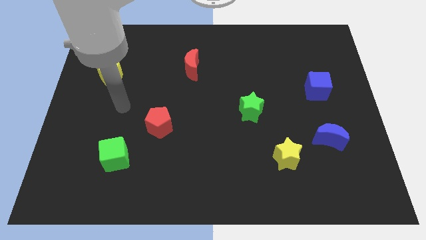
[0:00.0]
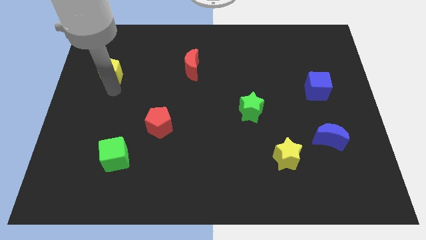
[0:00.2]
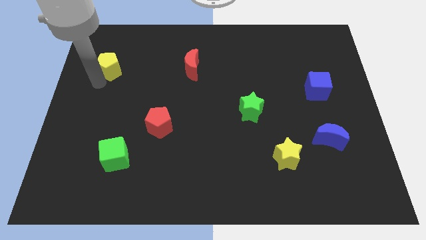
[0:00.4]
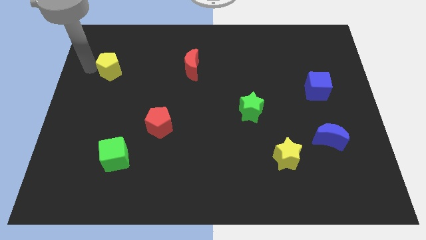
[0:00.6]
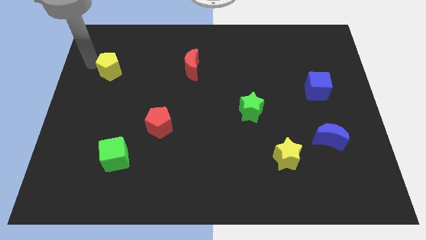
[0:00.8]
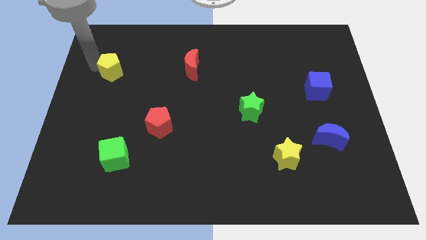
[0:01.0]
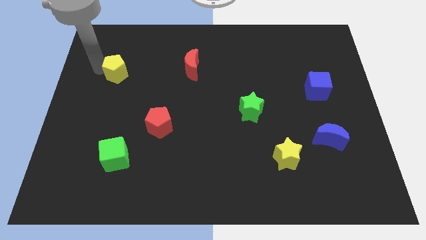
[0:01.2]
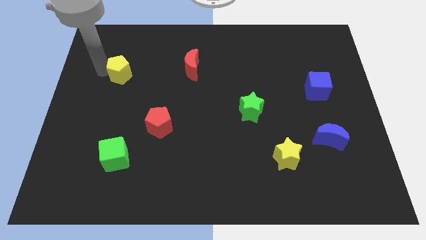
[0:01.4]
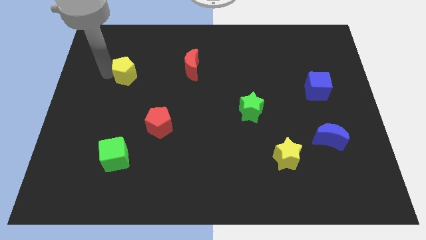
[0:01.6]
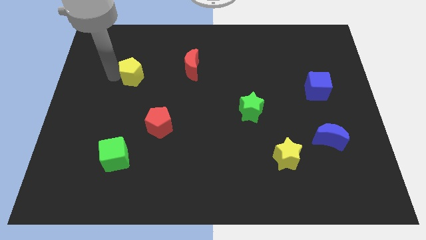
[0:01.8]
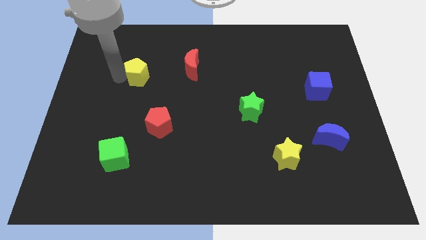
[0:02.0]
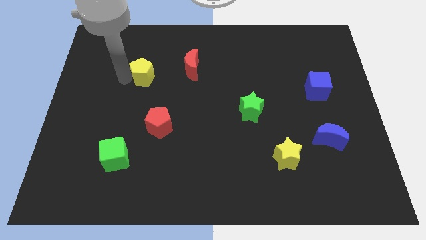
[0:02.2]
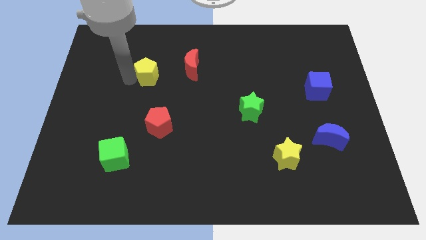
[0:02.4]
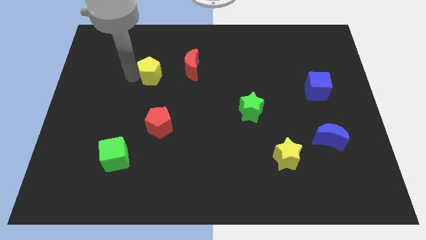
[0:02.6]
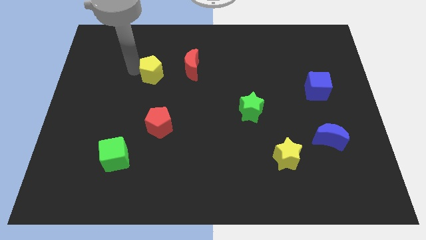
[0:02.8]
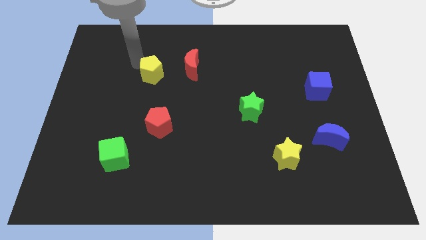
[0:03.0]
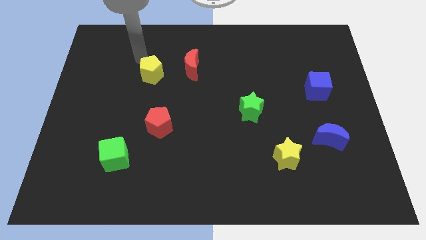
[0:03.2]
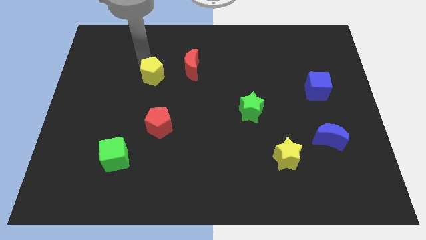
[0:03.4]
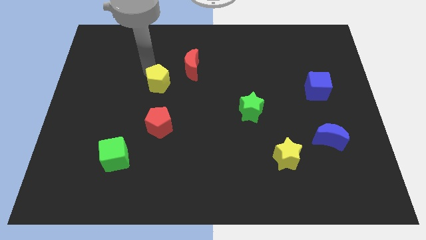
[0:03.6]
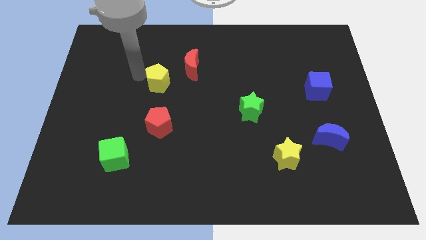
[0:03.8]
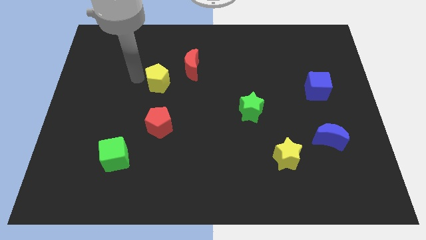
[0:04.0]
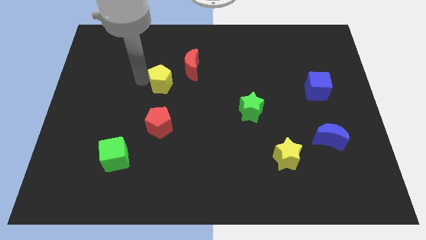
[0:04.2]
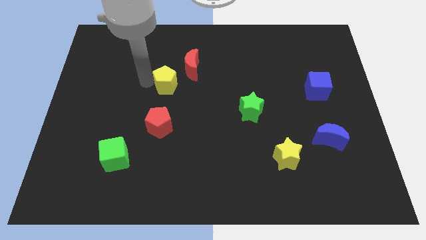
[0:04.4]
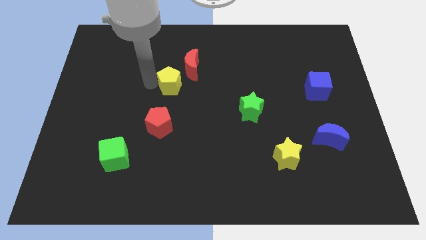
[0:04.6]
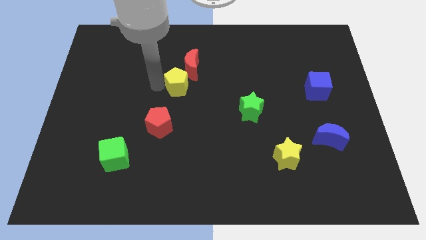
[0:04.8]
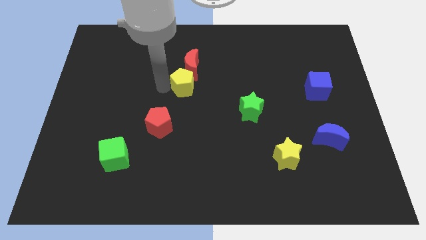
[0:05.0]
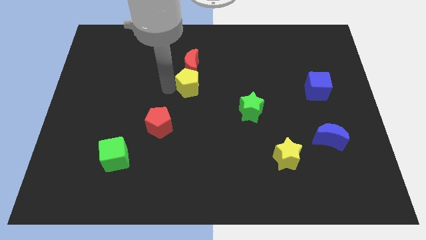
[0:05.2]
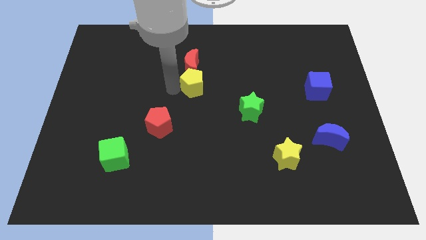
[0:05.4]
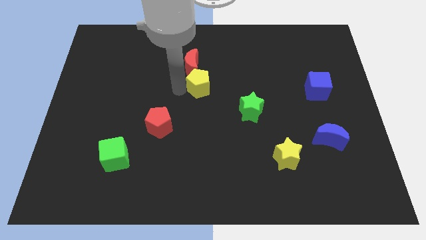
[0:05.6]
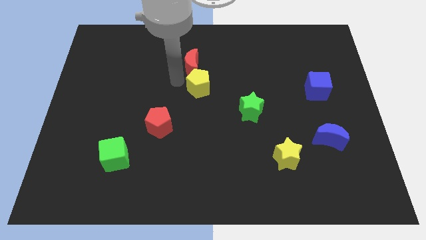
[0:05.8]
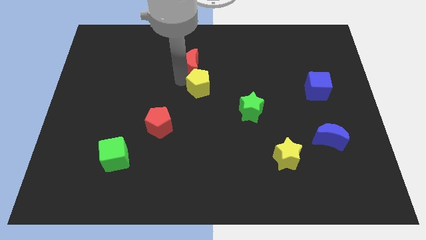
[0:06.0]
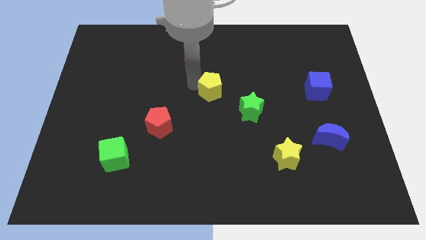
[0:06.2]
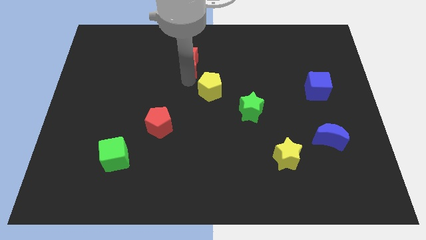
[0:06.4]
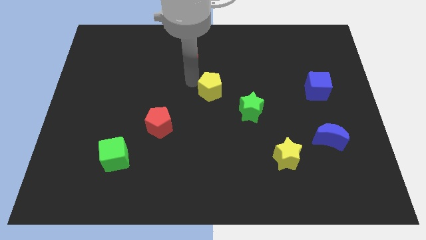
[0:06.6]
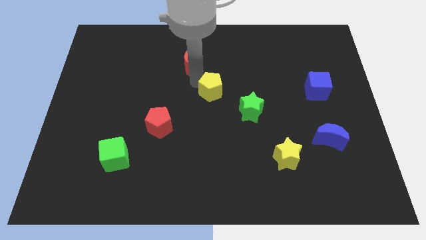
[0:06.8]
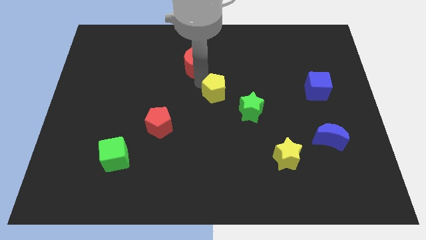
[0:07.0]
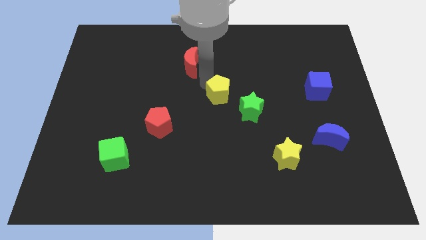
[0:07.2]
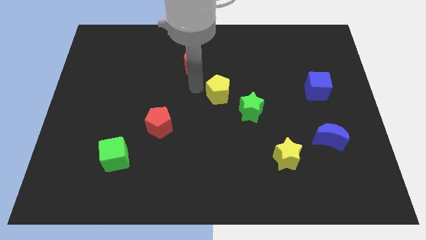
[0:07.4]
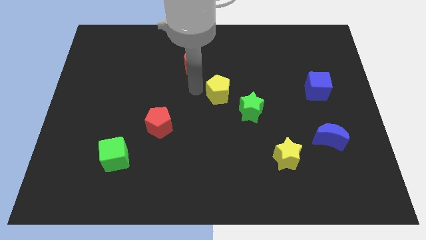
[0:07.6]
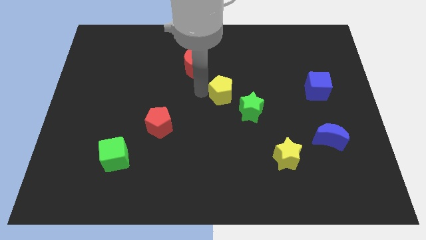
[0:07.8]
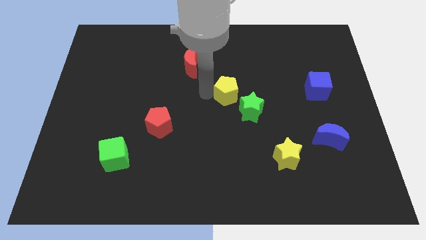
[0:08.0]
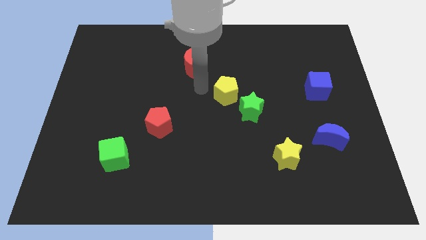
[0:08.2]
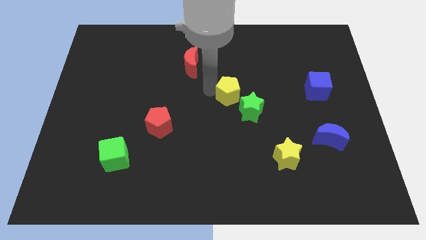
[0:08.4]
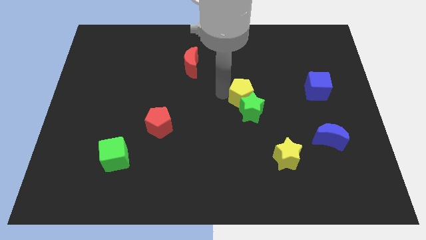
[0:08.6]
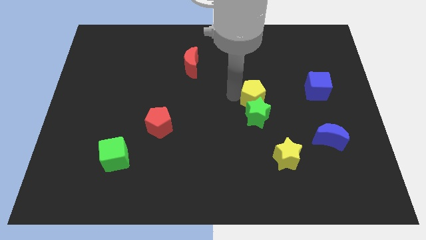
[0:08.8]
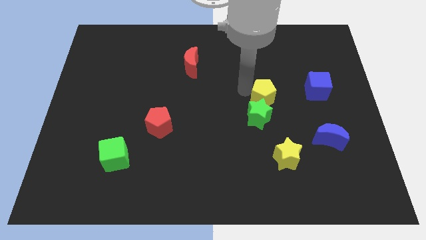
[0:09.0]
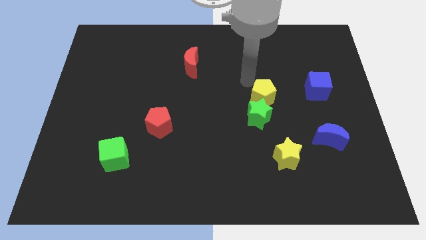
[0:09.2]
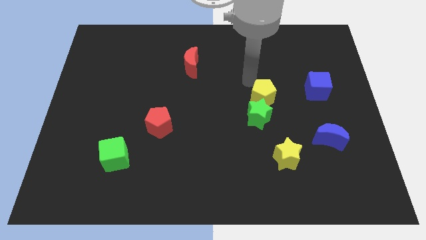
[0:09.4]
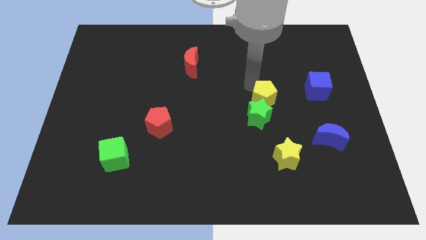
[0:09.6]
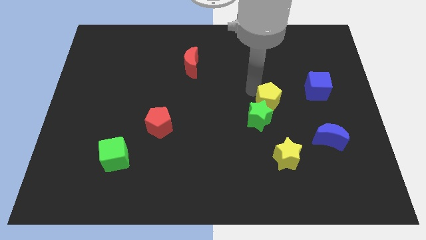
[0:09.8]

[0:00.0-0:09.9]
push the yellow pentagon to the top of the yellow star

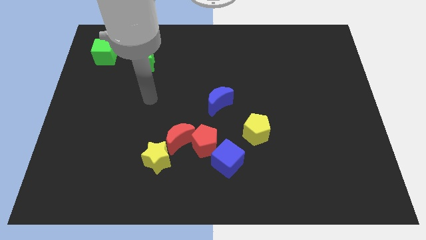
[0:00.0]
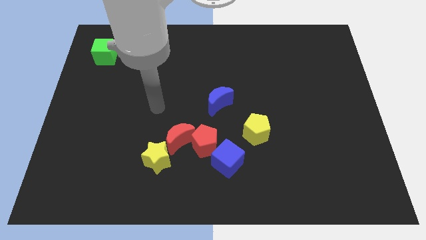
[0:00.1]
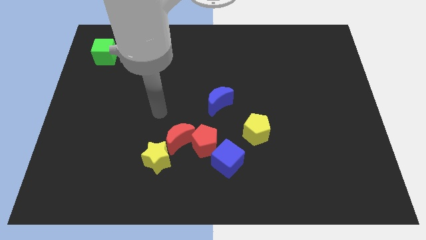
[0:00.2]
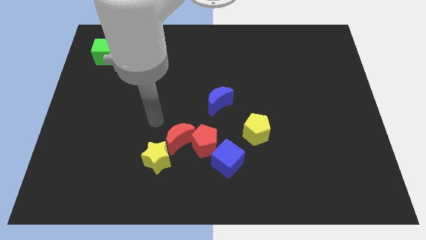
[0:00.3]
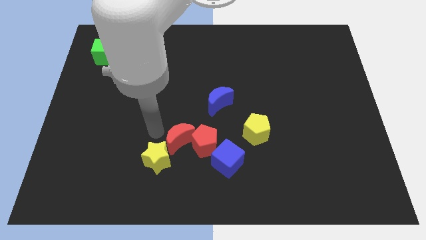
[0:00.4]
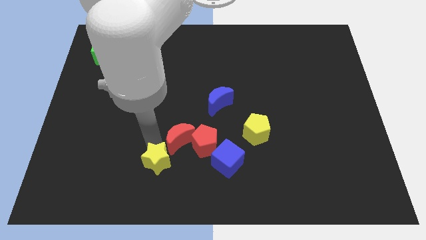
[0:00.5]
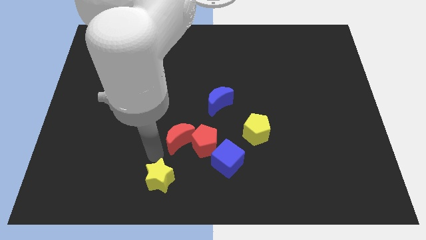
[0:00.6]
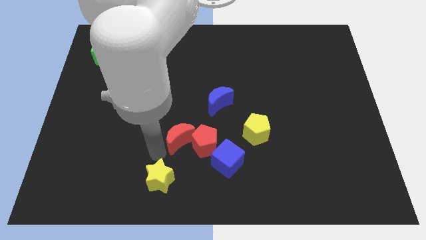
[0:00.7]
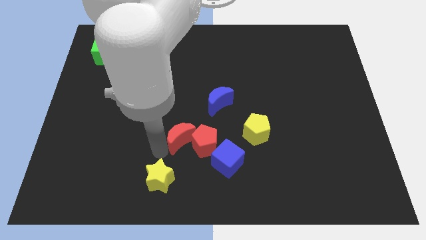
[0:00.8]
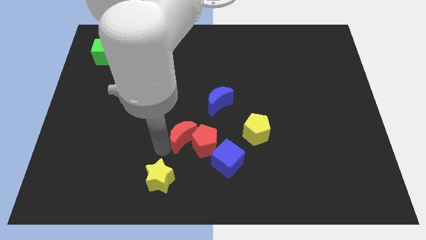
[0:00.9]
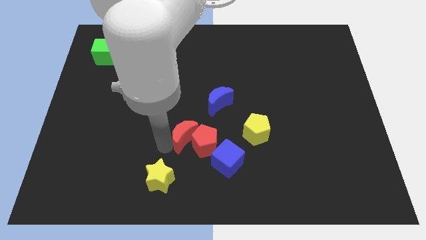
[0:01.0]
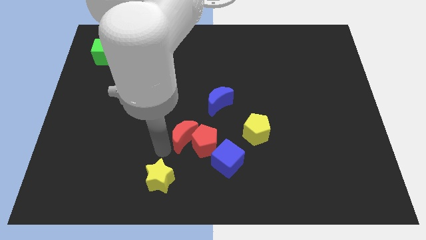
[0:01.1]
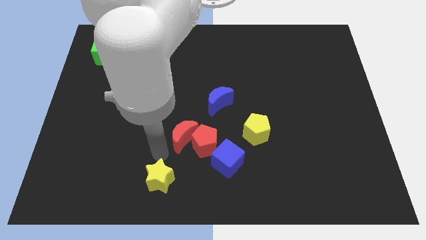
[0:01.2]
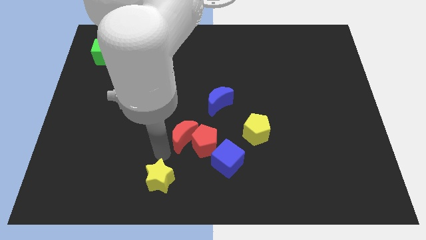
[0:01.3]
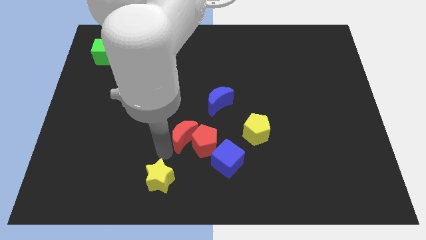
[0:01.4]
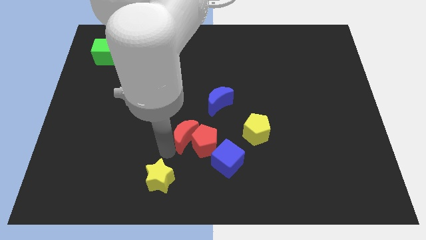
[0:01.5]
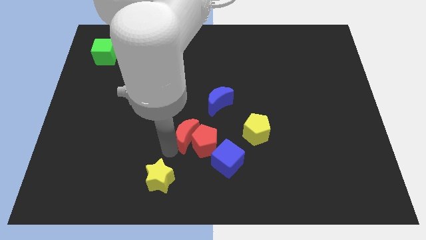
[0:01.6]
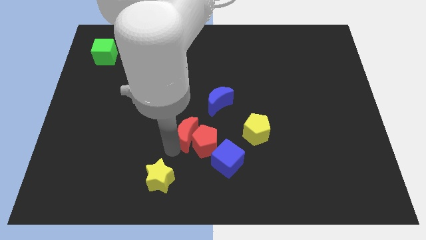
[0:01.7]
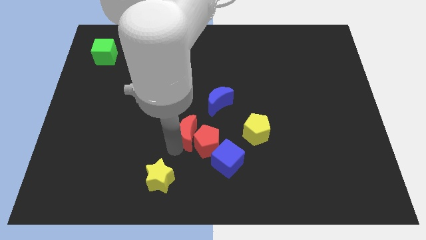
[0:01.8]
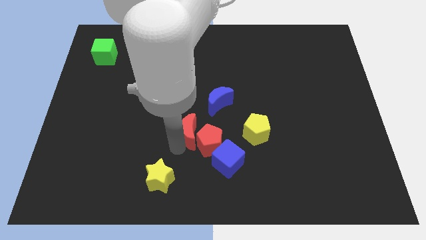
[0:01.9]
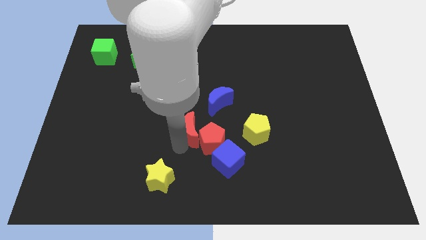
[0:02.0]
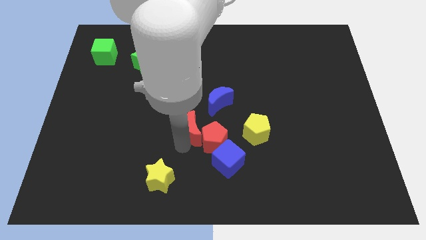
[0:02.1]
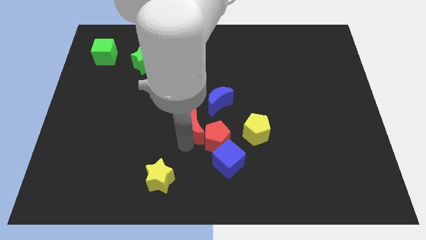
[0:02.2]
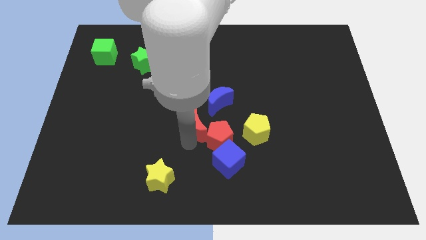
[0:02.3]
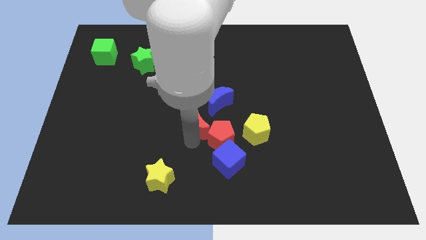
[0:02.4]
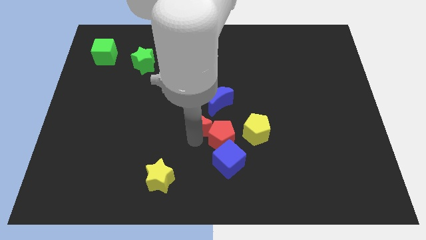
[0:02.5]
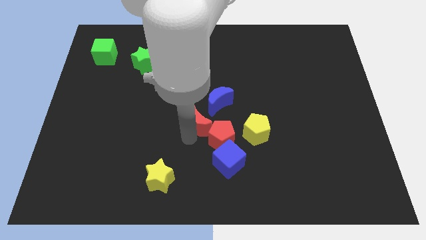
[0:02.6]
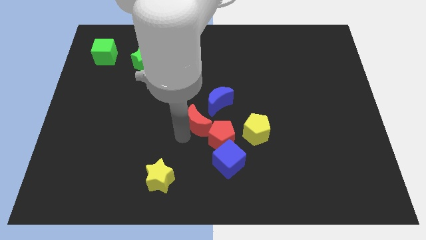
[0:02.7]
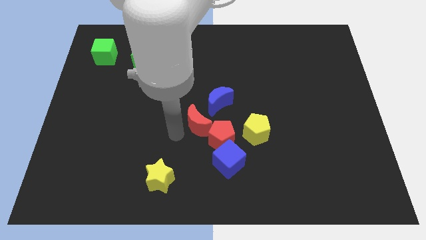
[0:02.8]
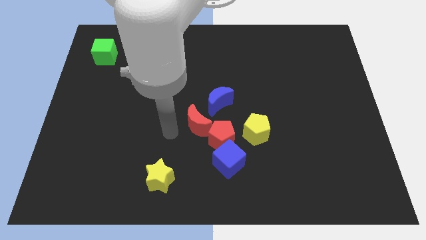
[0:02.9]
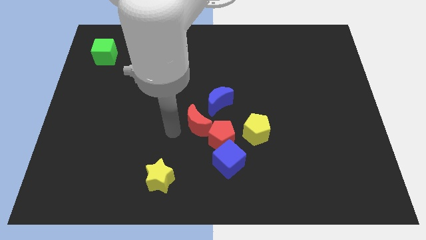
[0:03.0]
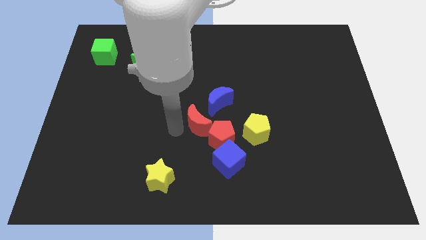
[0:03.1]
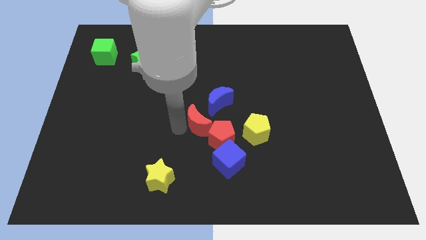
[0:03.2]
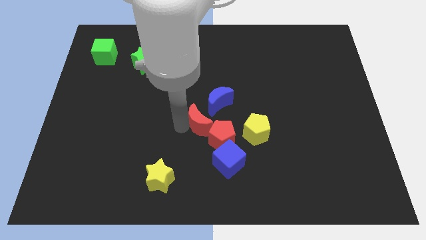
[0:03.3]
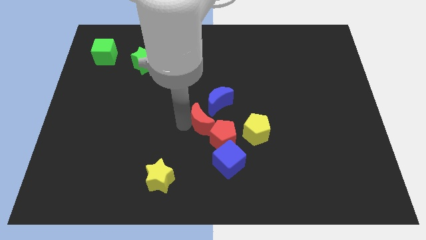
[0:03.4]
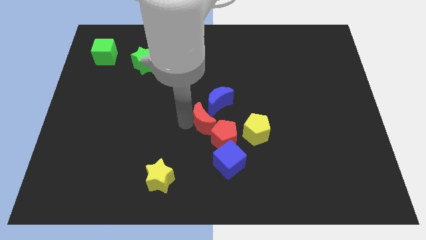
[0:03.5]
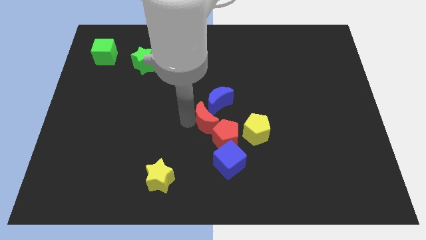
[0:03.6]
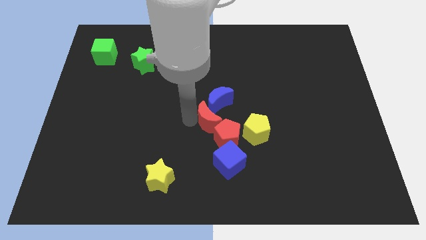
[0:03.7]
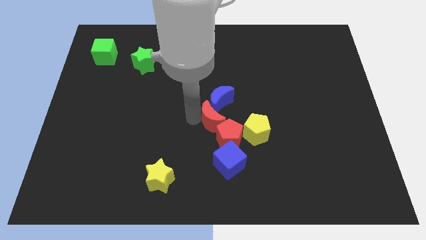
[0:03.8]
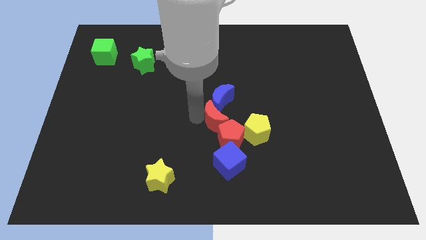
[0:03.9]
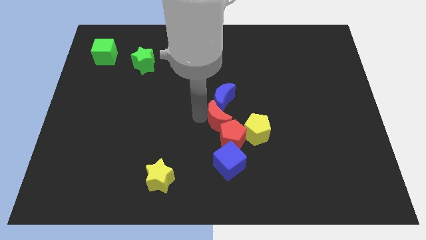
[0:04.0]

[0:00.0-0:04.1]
slide the red moon to the bottom right of the blue moon
